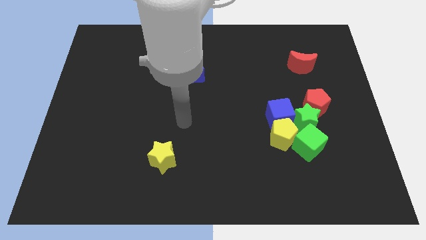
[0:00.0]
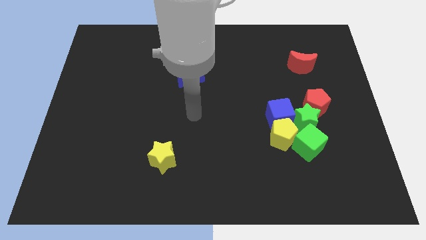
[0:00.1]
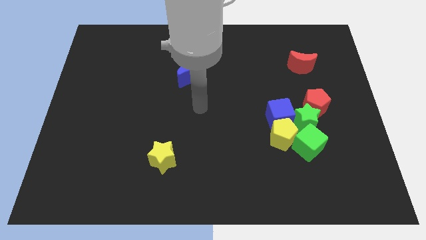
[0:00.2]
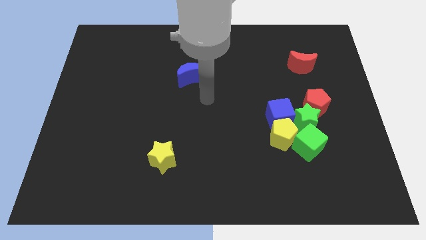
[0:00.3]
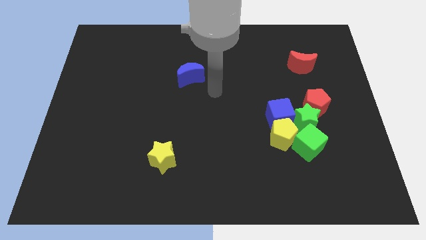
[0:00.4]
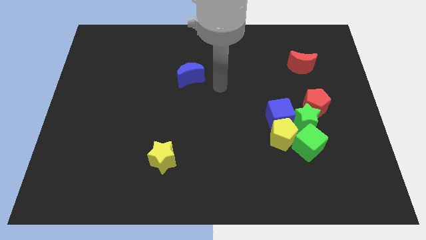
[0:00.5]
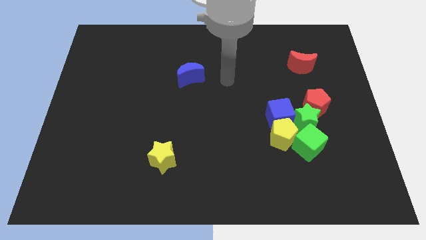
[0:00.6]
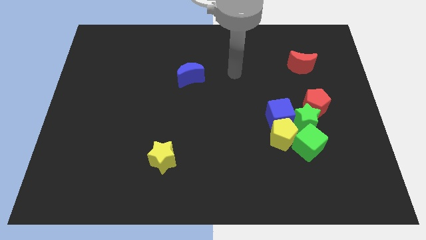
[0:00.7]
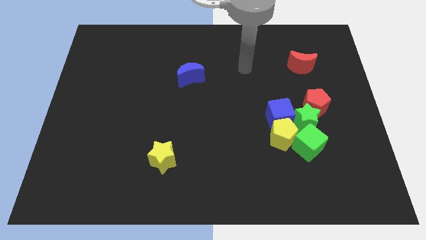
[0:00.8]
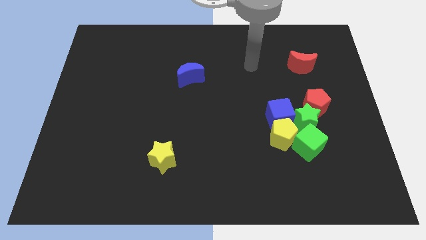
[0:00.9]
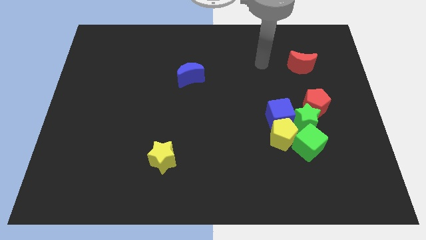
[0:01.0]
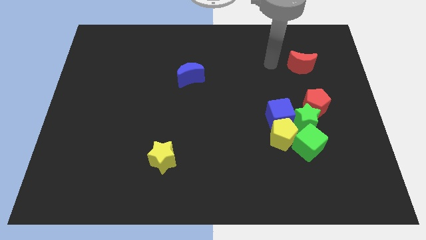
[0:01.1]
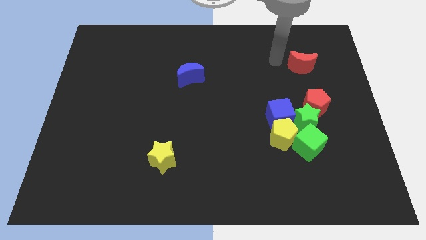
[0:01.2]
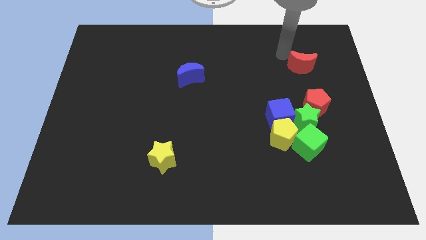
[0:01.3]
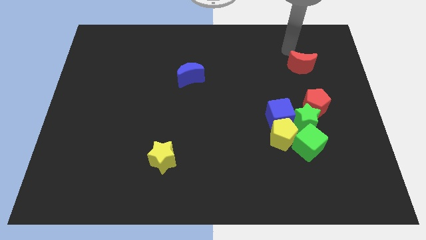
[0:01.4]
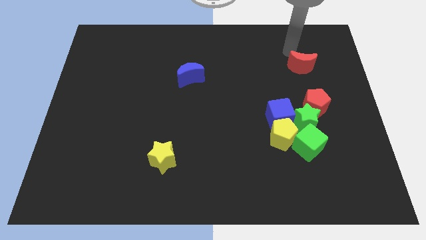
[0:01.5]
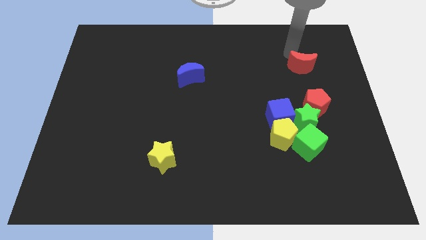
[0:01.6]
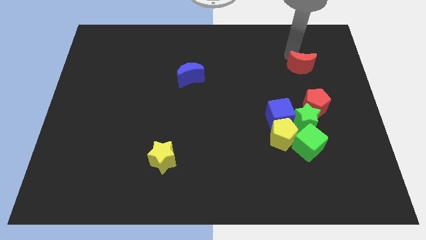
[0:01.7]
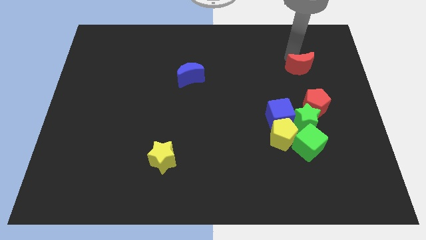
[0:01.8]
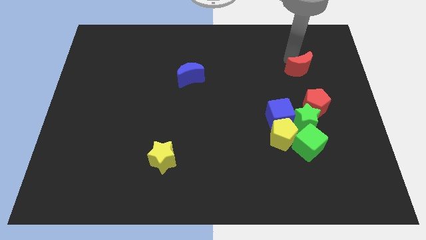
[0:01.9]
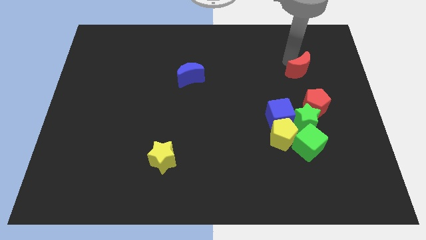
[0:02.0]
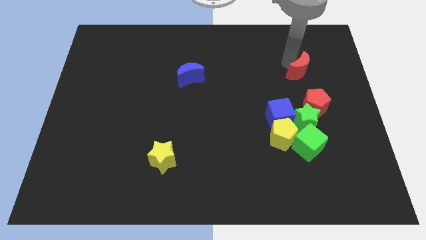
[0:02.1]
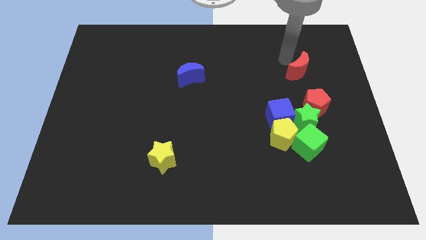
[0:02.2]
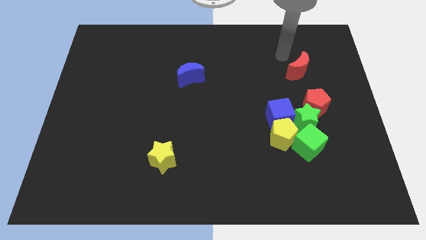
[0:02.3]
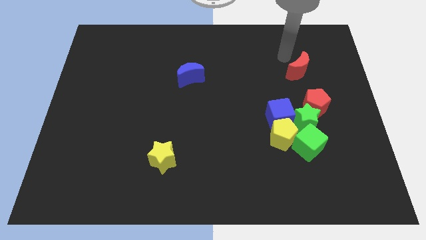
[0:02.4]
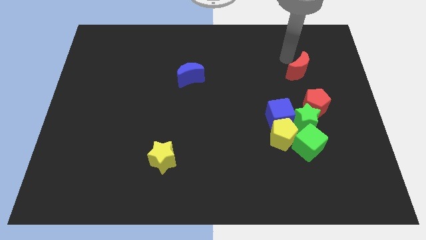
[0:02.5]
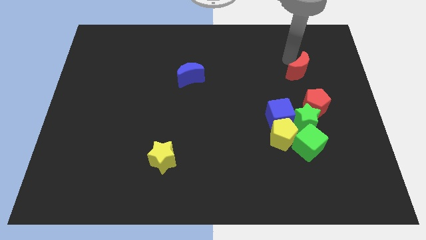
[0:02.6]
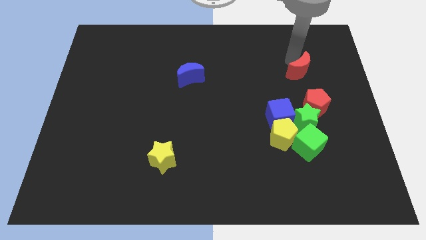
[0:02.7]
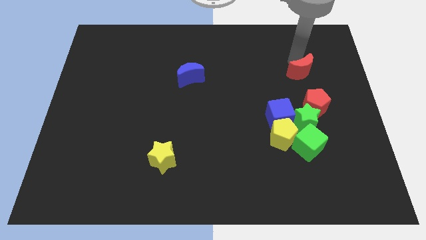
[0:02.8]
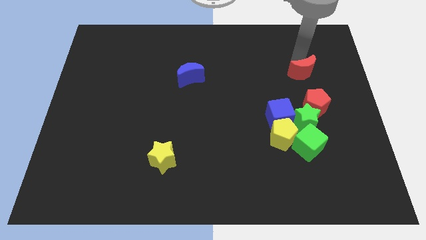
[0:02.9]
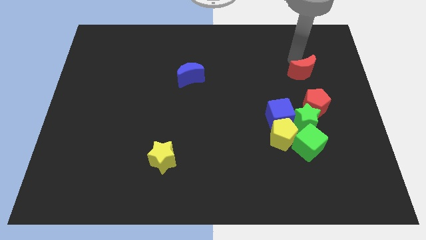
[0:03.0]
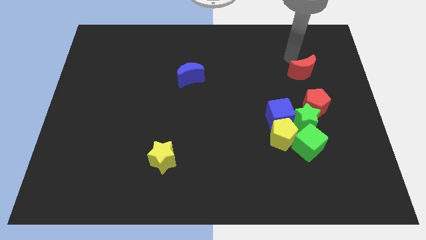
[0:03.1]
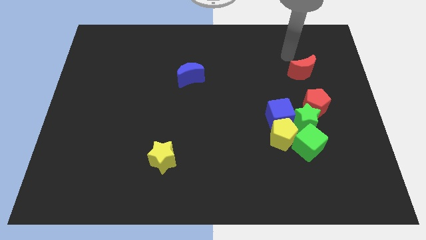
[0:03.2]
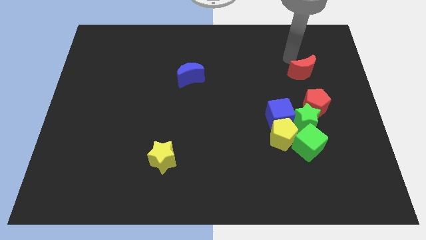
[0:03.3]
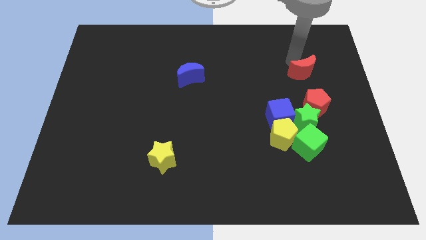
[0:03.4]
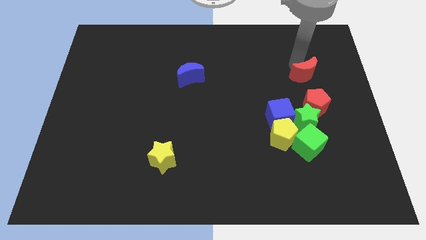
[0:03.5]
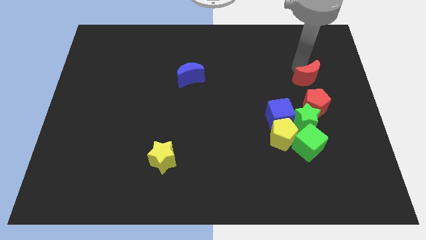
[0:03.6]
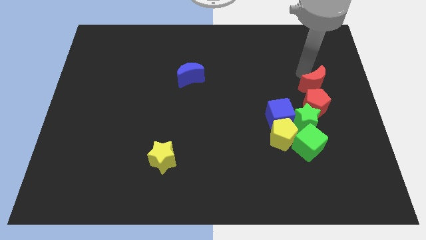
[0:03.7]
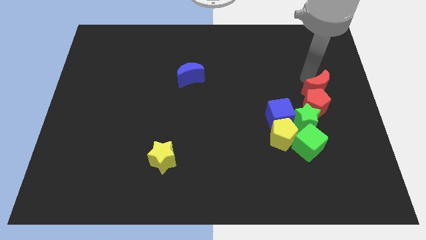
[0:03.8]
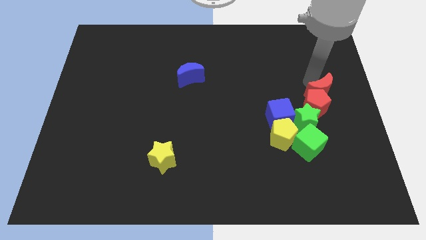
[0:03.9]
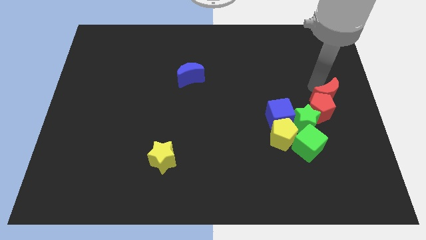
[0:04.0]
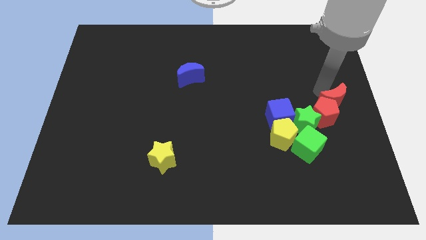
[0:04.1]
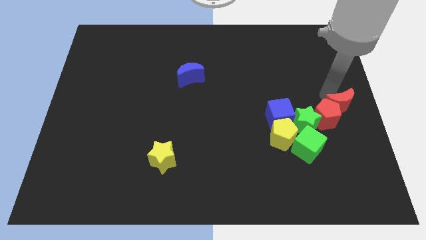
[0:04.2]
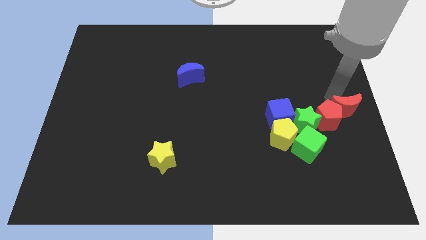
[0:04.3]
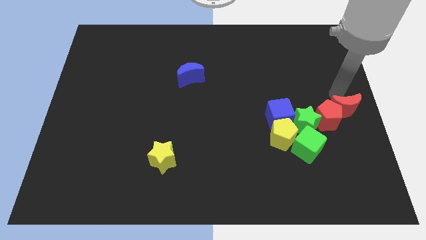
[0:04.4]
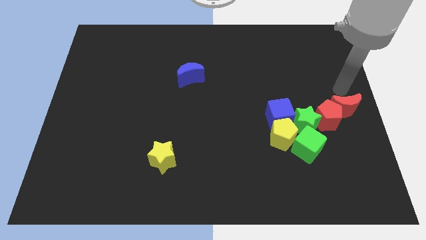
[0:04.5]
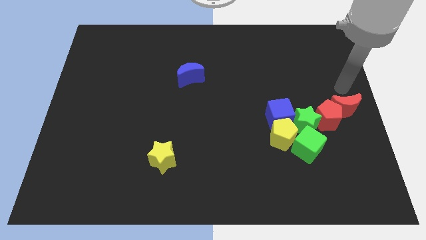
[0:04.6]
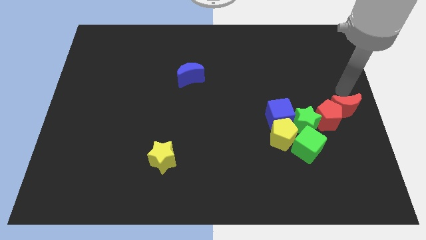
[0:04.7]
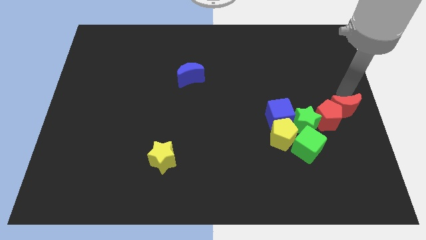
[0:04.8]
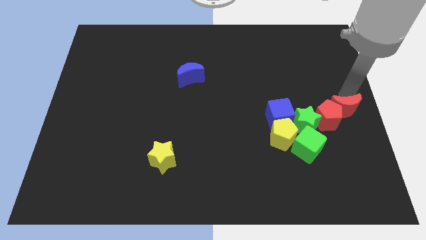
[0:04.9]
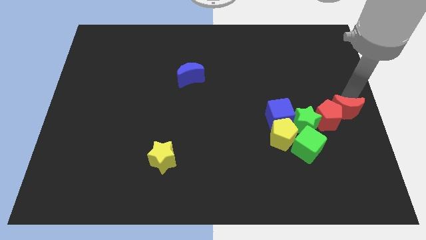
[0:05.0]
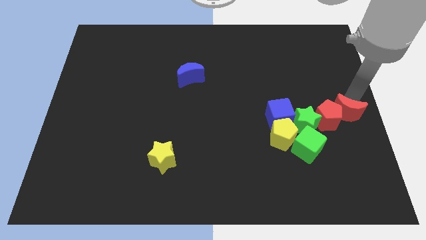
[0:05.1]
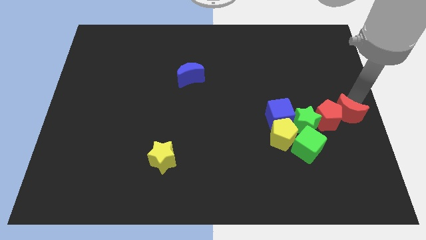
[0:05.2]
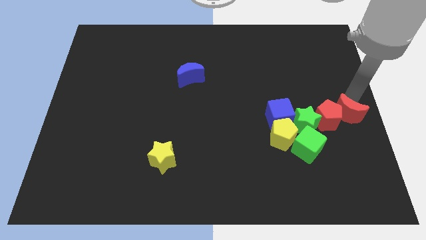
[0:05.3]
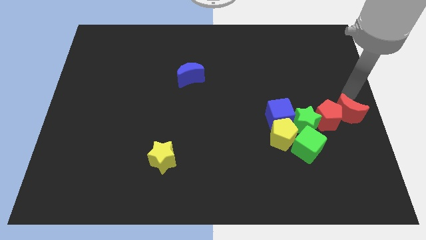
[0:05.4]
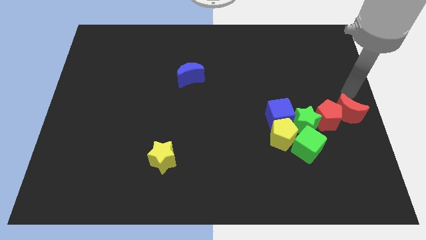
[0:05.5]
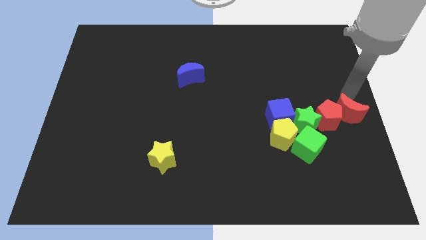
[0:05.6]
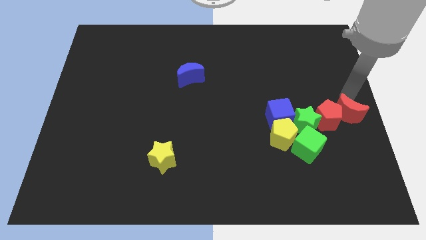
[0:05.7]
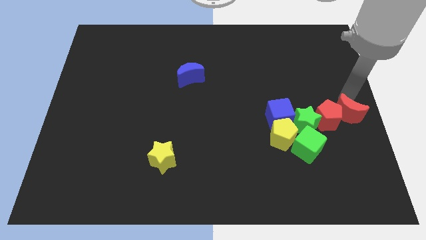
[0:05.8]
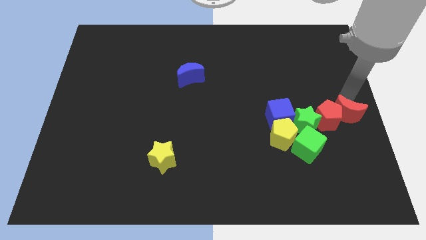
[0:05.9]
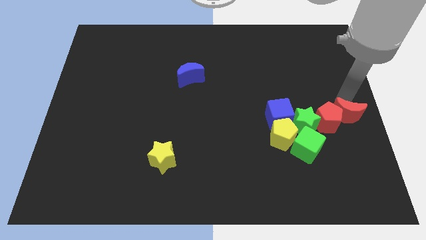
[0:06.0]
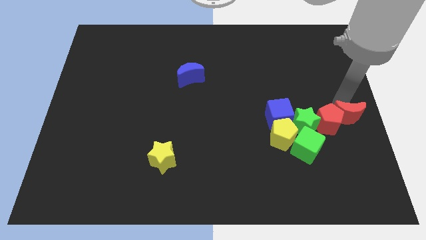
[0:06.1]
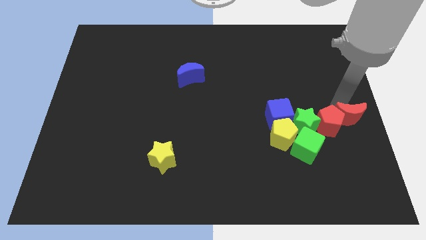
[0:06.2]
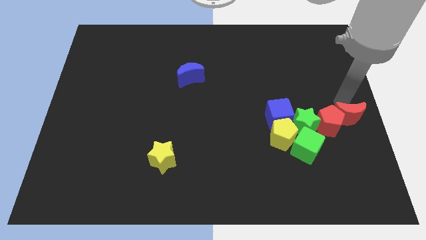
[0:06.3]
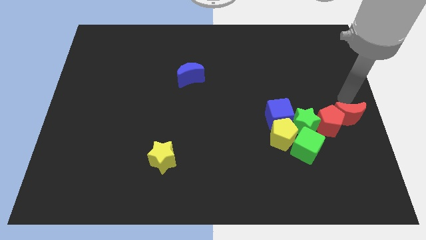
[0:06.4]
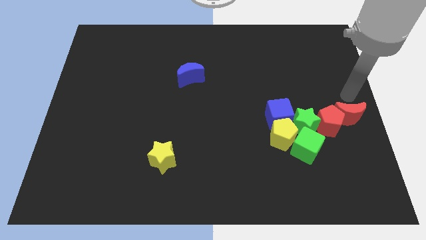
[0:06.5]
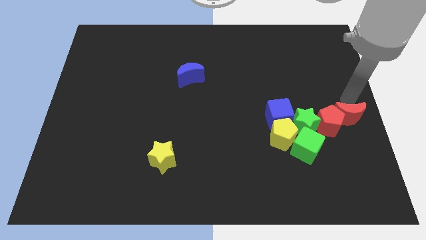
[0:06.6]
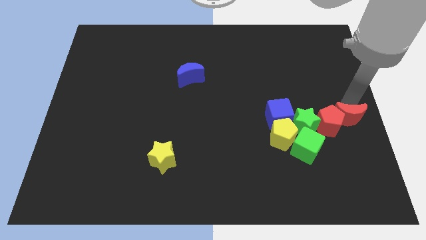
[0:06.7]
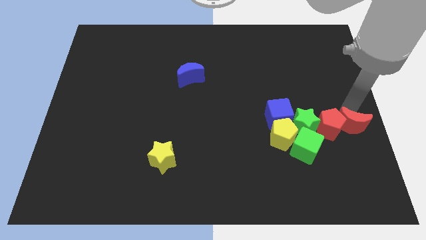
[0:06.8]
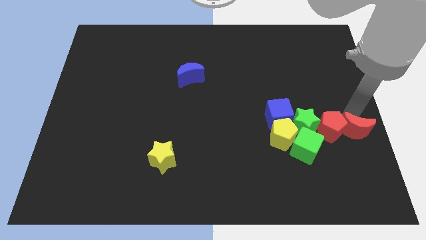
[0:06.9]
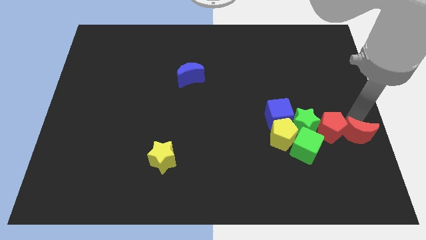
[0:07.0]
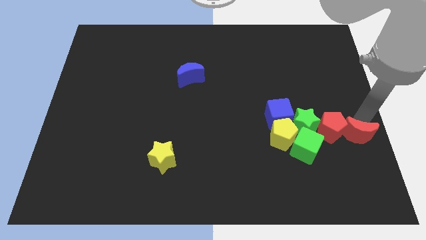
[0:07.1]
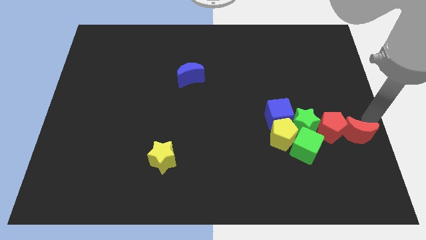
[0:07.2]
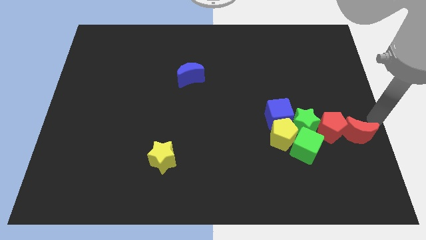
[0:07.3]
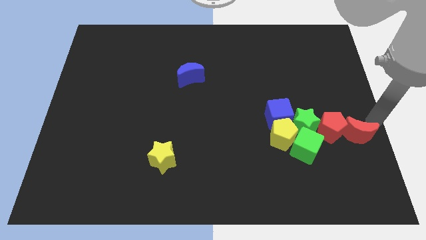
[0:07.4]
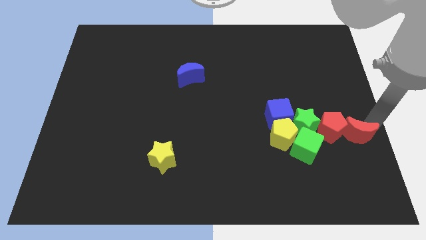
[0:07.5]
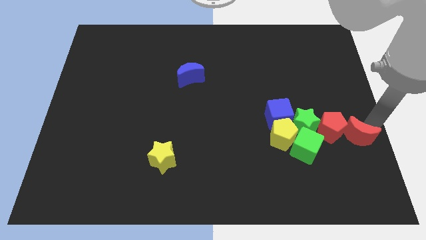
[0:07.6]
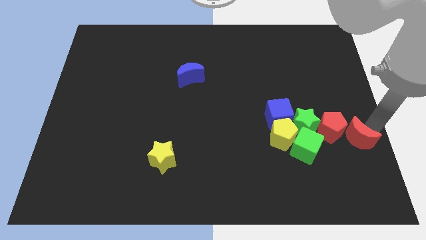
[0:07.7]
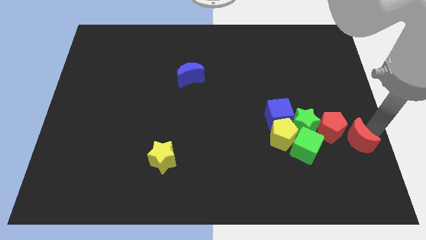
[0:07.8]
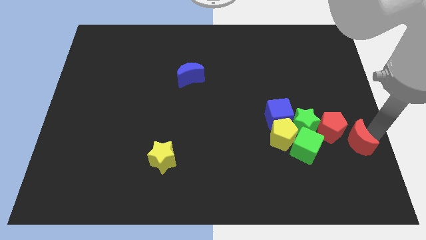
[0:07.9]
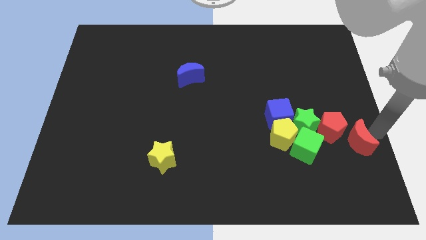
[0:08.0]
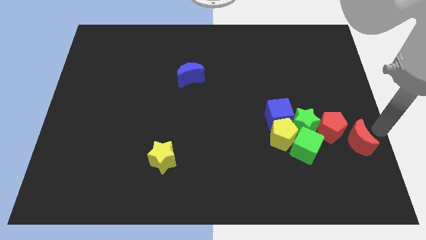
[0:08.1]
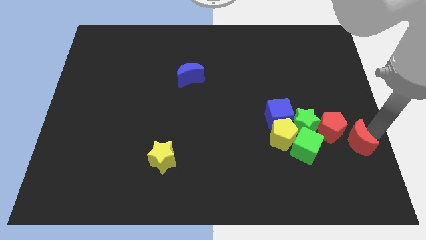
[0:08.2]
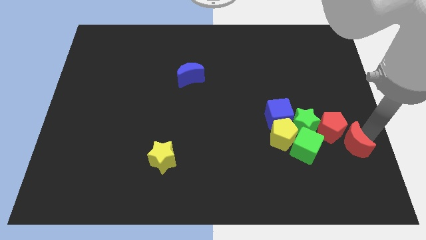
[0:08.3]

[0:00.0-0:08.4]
slide the red moon downwards

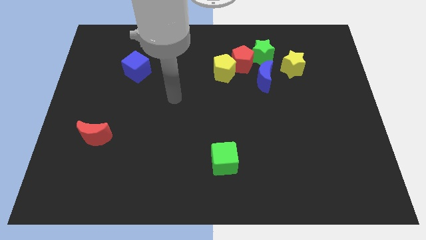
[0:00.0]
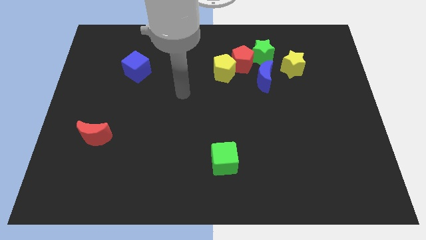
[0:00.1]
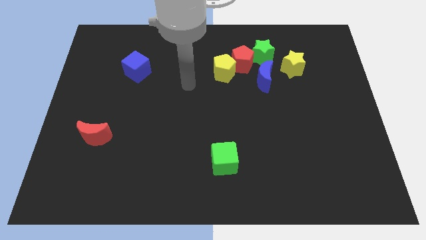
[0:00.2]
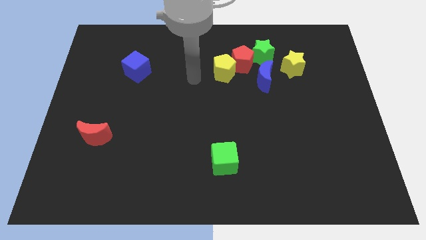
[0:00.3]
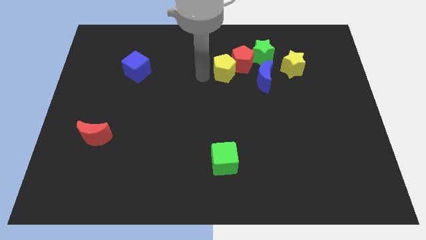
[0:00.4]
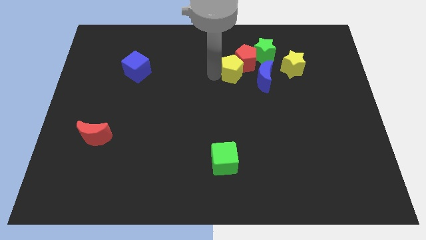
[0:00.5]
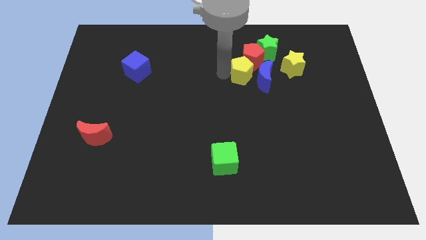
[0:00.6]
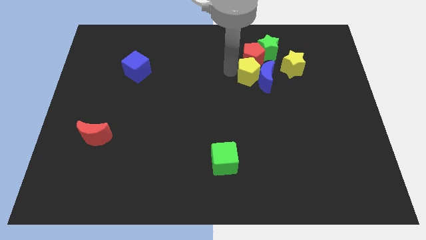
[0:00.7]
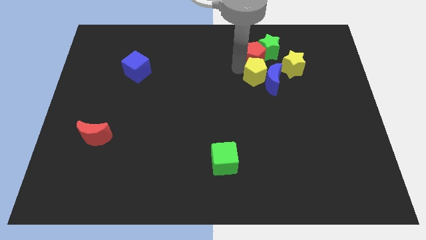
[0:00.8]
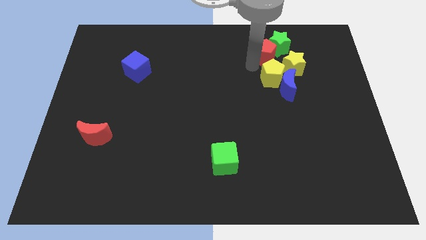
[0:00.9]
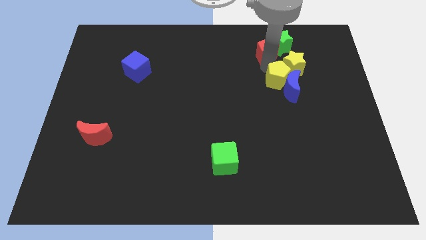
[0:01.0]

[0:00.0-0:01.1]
slightly push the blue moon downwards and then right
